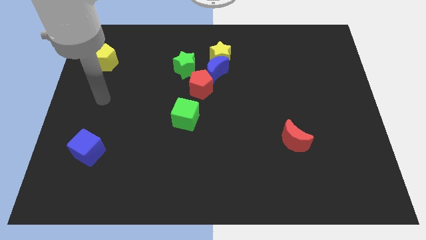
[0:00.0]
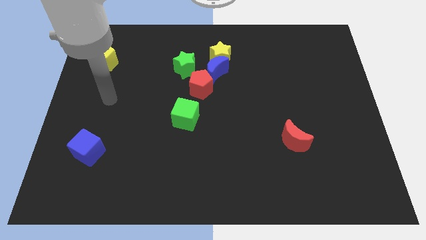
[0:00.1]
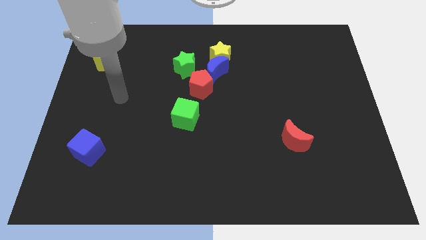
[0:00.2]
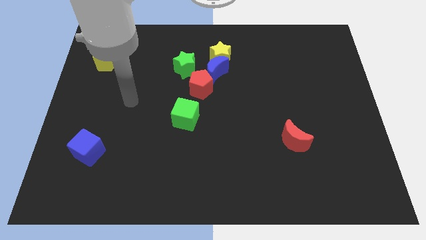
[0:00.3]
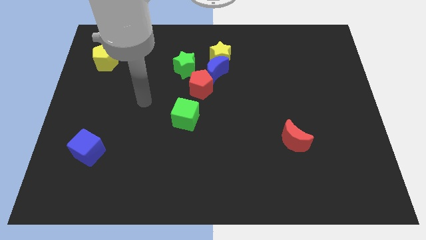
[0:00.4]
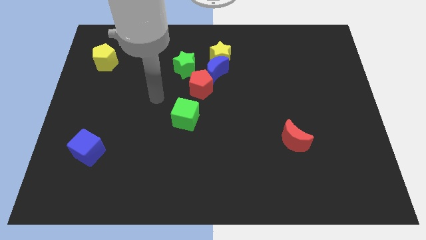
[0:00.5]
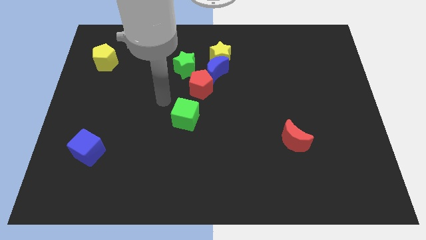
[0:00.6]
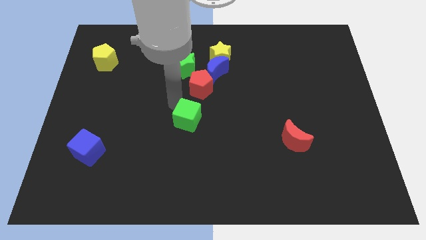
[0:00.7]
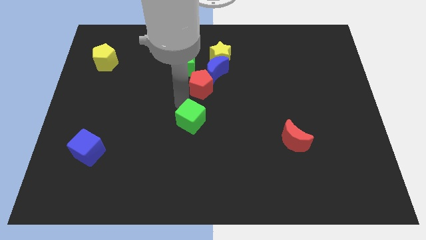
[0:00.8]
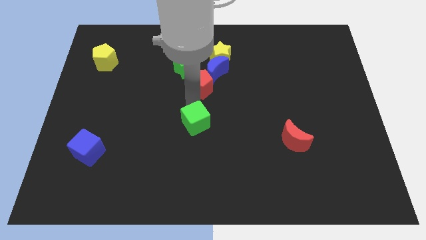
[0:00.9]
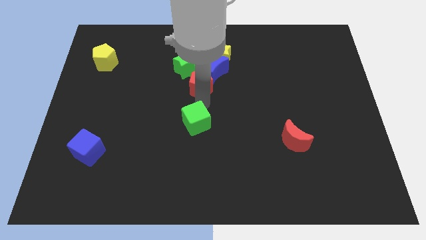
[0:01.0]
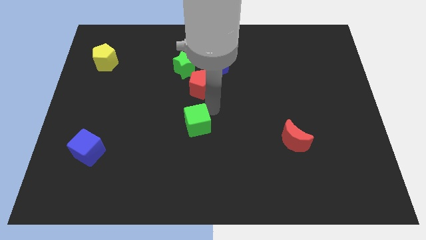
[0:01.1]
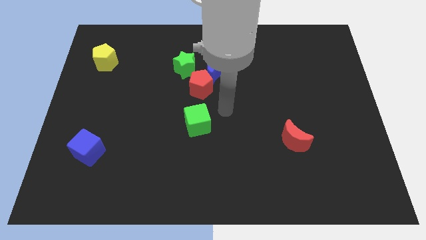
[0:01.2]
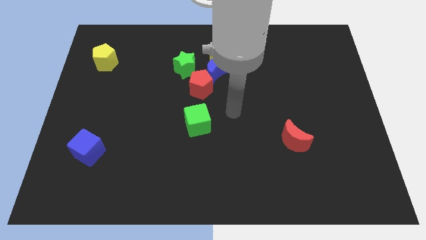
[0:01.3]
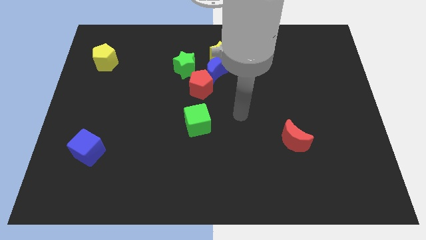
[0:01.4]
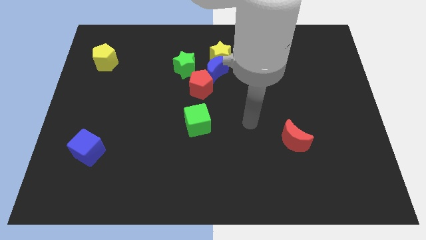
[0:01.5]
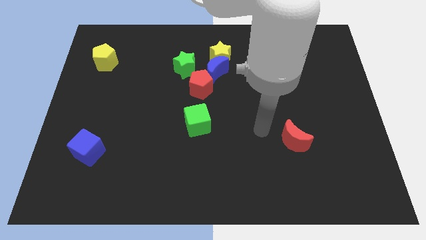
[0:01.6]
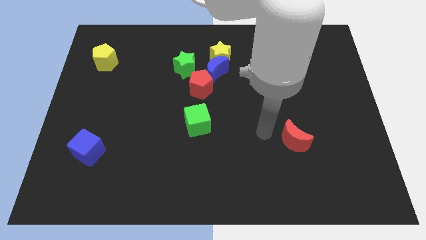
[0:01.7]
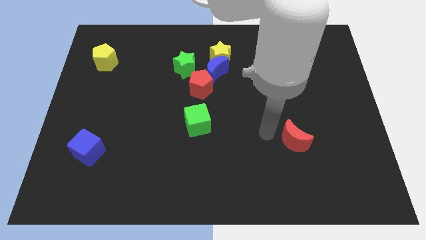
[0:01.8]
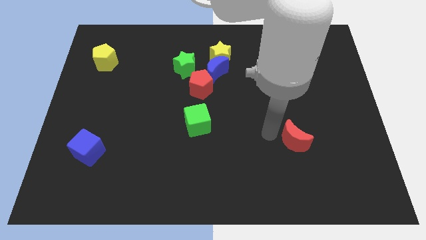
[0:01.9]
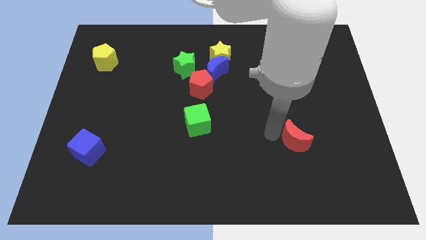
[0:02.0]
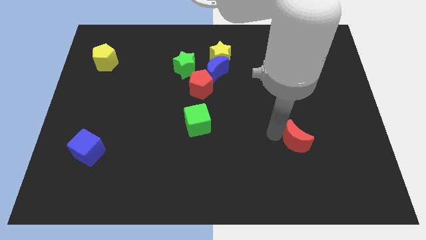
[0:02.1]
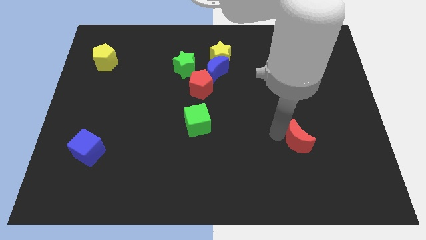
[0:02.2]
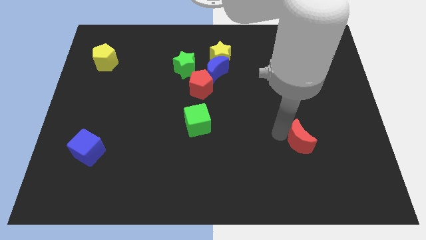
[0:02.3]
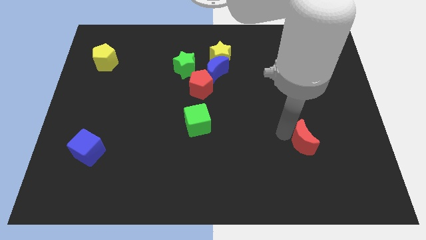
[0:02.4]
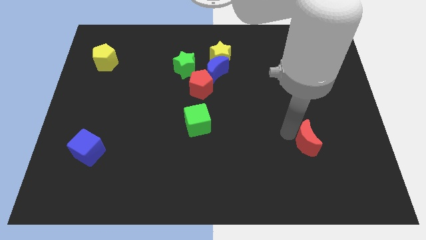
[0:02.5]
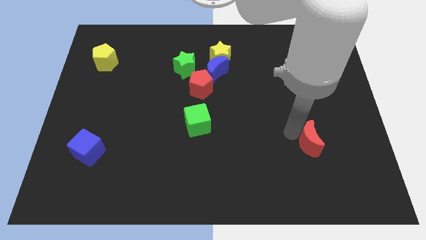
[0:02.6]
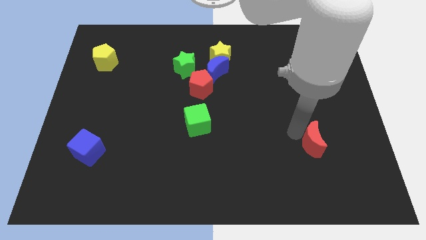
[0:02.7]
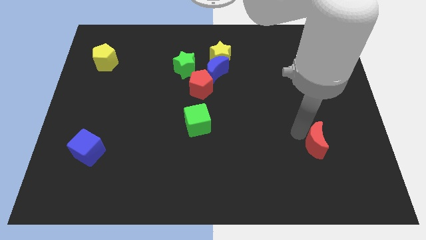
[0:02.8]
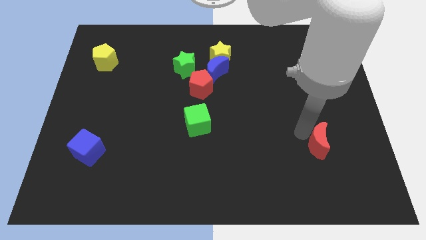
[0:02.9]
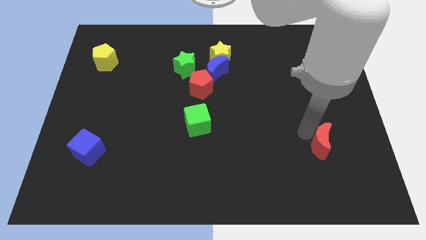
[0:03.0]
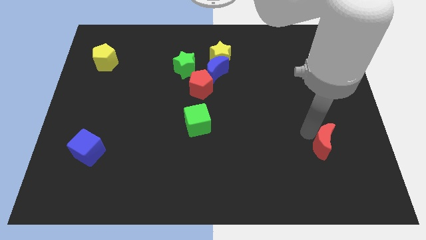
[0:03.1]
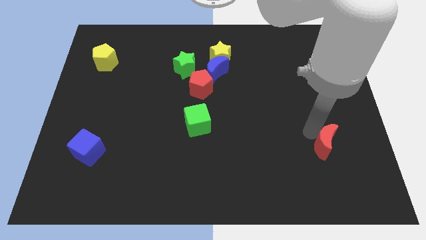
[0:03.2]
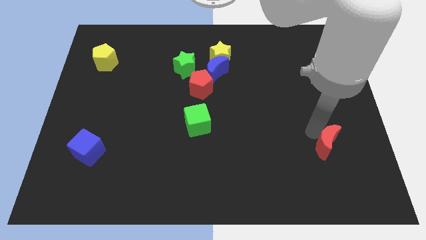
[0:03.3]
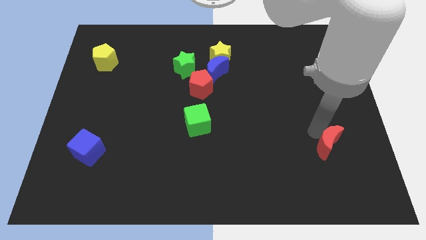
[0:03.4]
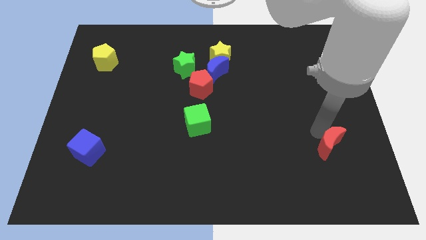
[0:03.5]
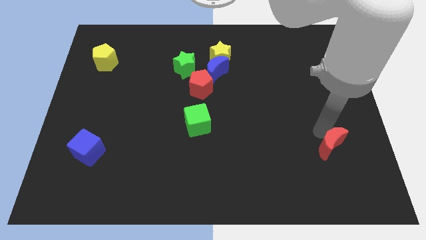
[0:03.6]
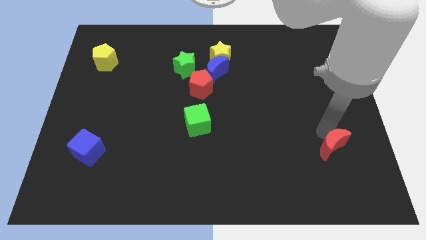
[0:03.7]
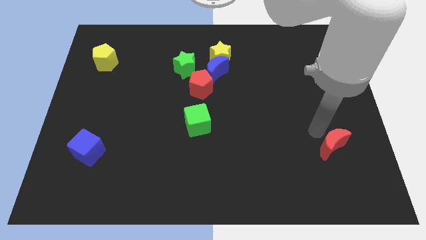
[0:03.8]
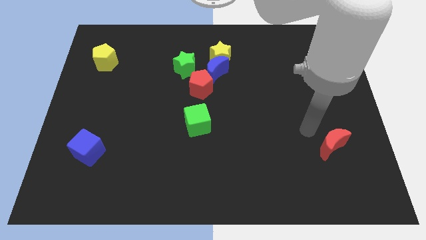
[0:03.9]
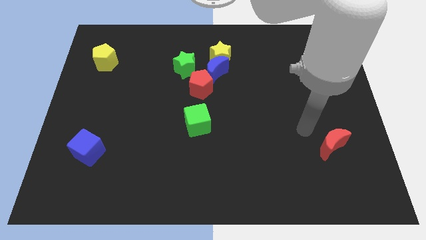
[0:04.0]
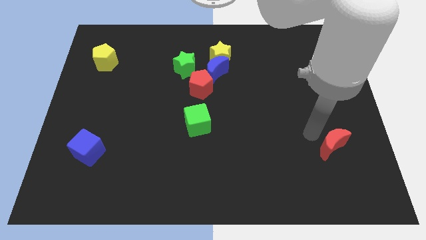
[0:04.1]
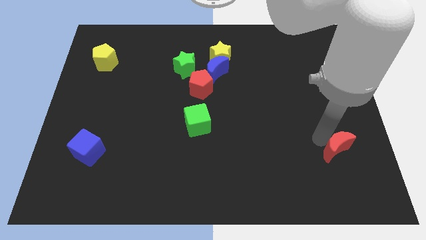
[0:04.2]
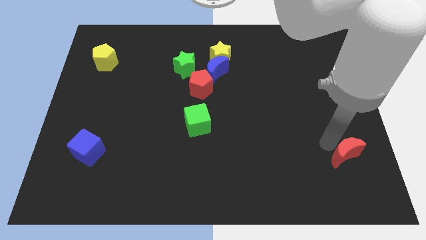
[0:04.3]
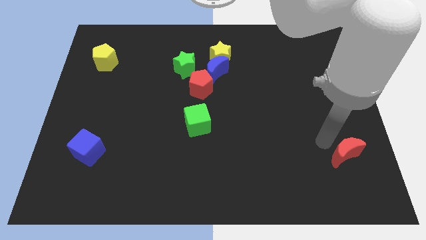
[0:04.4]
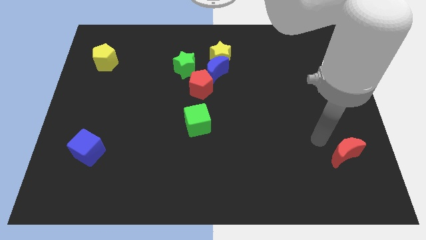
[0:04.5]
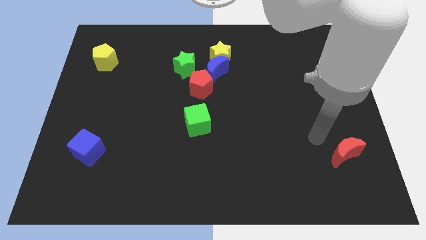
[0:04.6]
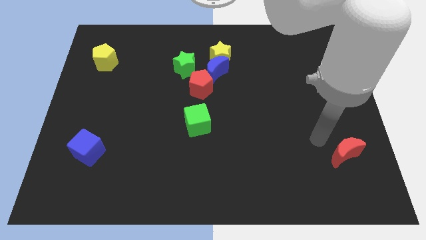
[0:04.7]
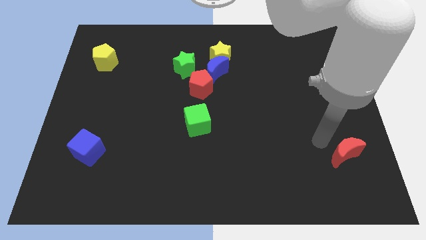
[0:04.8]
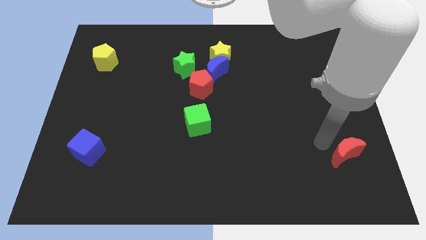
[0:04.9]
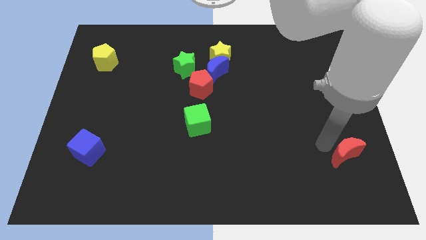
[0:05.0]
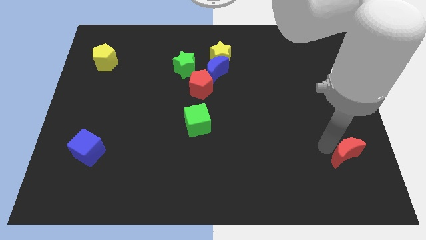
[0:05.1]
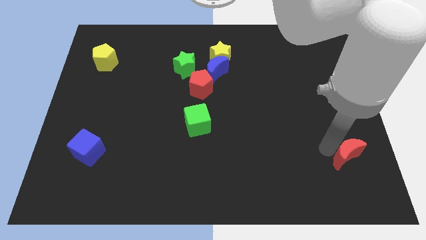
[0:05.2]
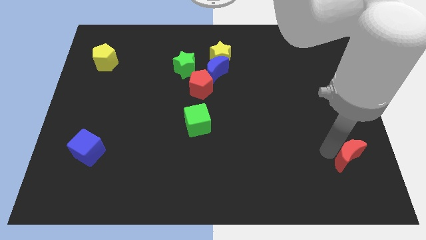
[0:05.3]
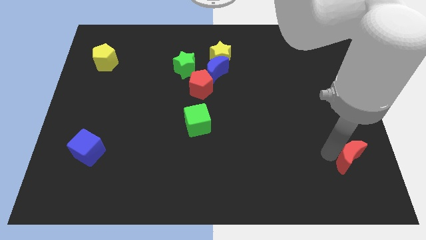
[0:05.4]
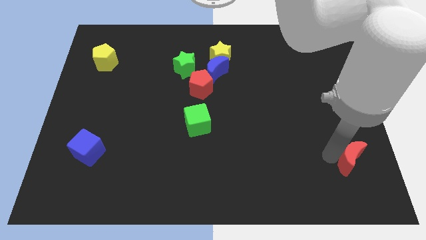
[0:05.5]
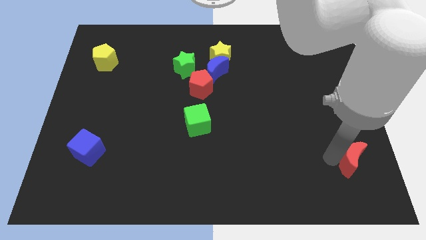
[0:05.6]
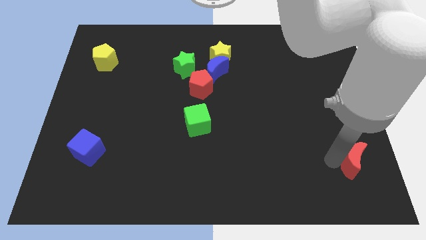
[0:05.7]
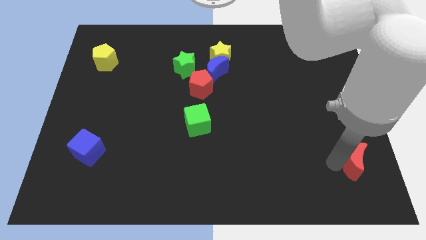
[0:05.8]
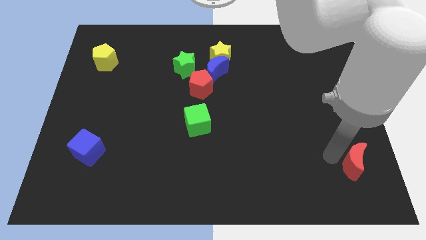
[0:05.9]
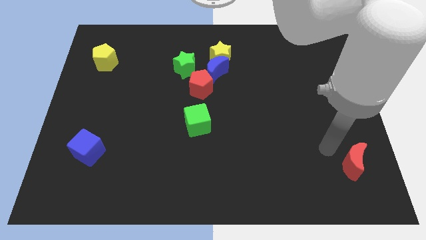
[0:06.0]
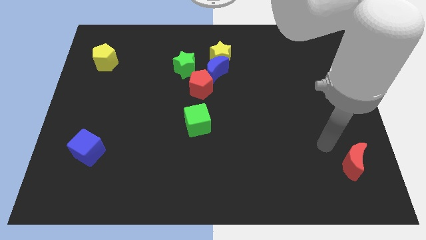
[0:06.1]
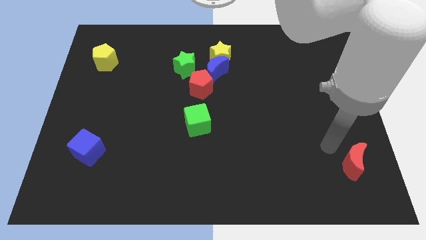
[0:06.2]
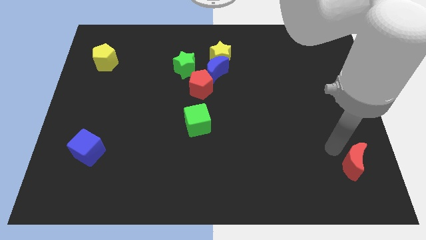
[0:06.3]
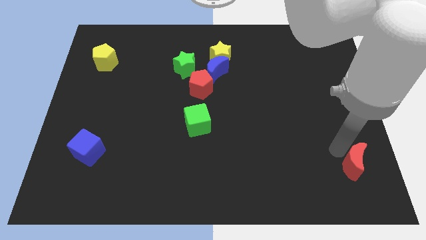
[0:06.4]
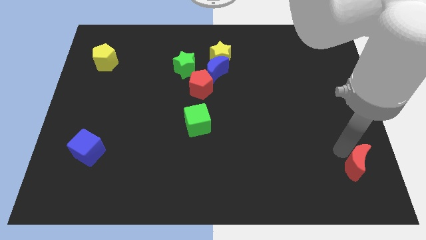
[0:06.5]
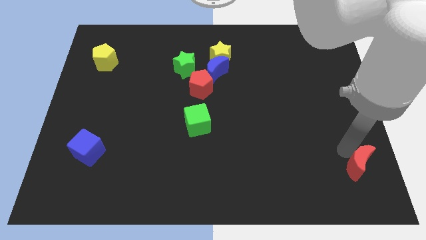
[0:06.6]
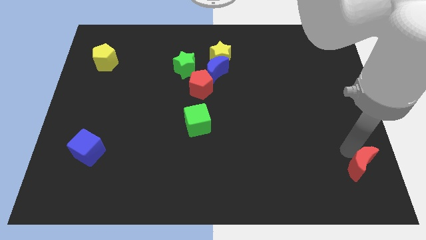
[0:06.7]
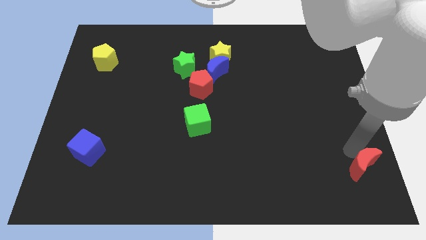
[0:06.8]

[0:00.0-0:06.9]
slide the red moon to the bottom right of the board

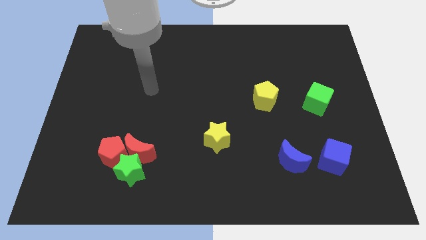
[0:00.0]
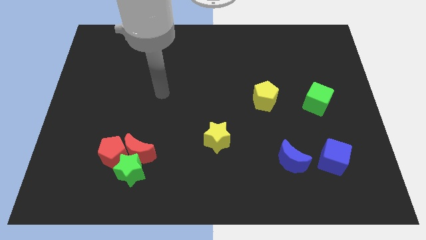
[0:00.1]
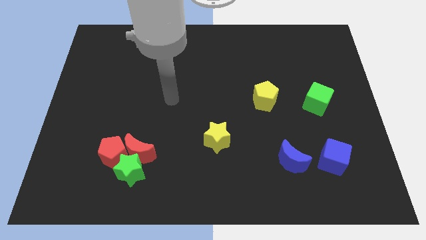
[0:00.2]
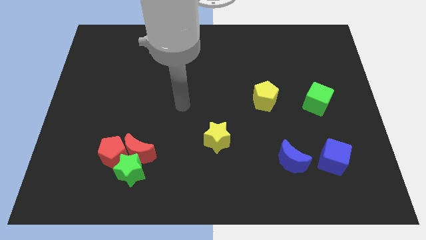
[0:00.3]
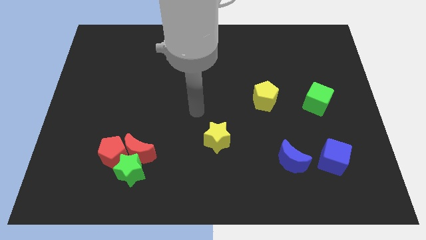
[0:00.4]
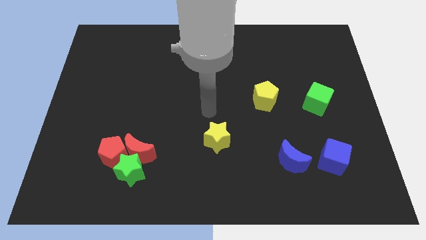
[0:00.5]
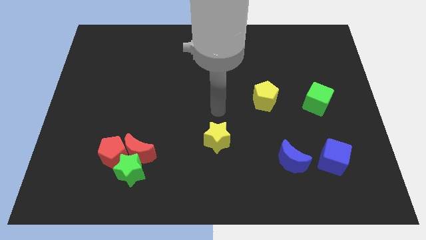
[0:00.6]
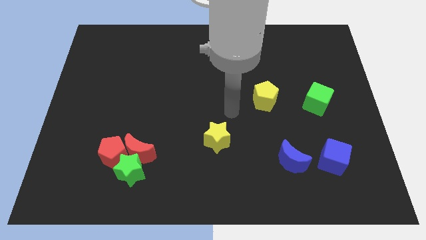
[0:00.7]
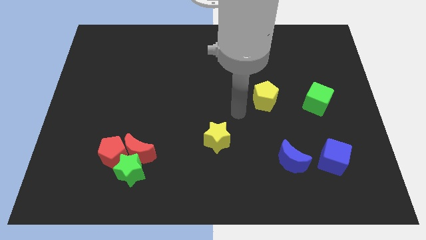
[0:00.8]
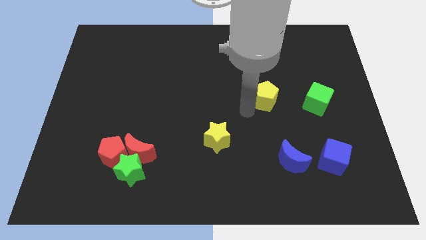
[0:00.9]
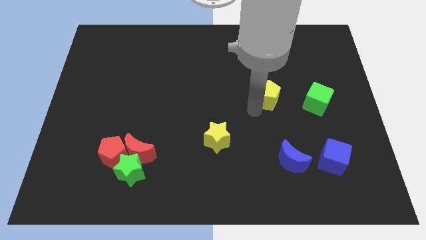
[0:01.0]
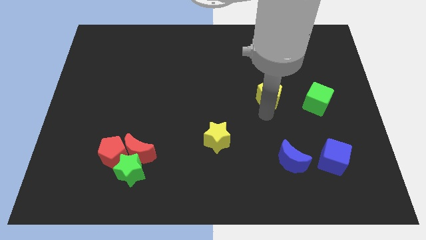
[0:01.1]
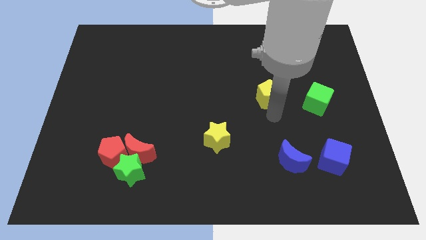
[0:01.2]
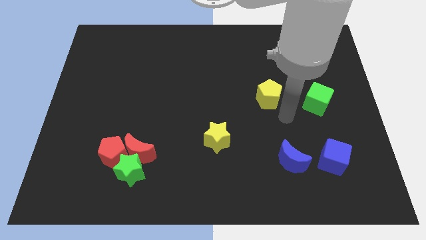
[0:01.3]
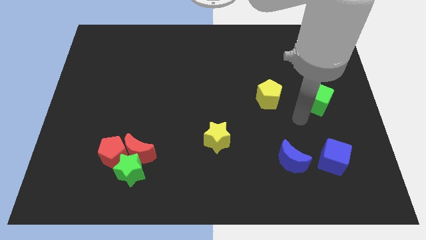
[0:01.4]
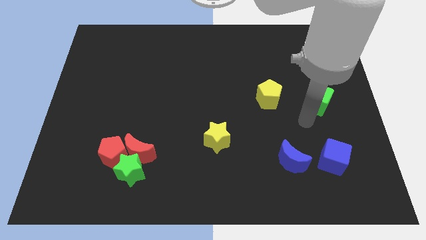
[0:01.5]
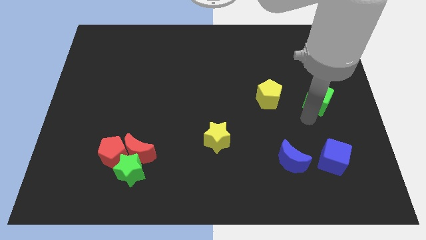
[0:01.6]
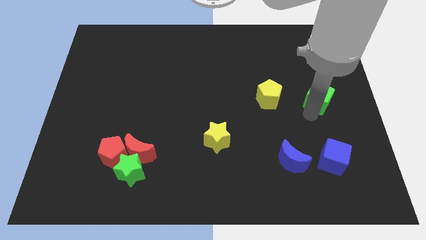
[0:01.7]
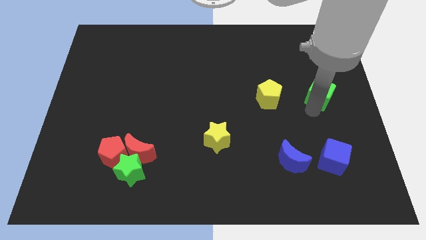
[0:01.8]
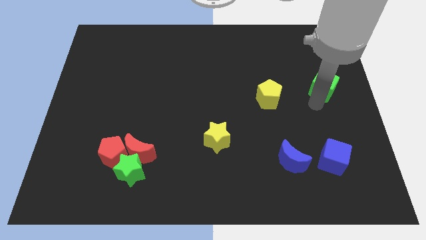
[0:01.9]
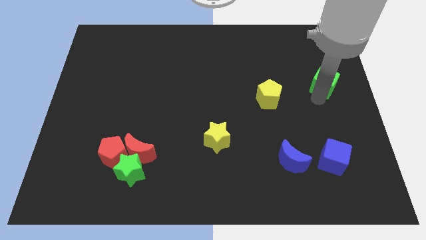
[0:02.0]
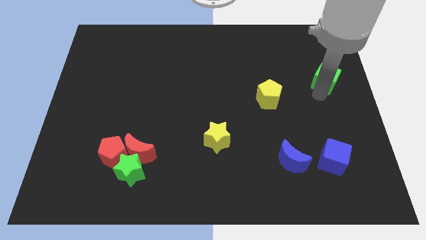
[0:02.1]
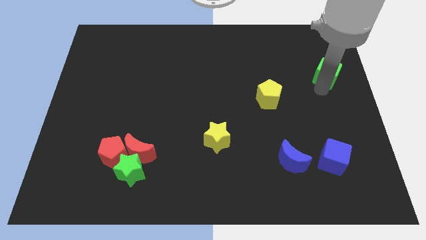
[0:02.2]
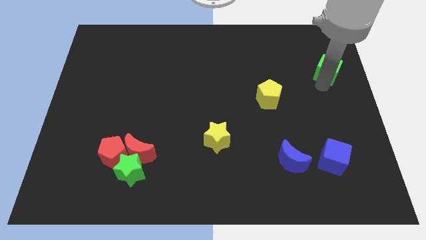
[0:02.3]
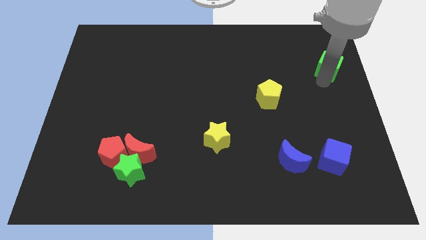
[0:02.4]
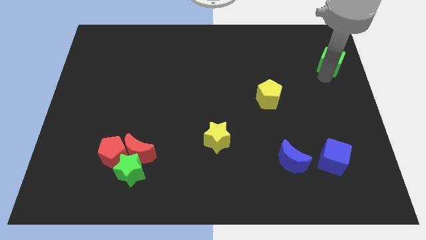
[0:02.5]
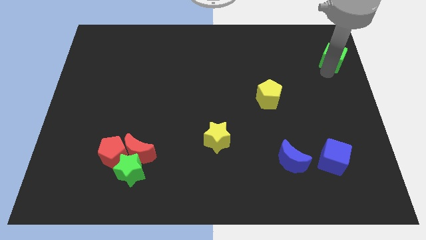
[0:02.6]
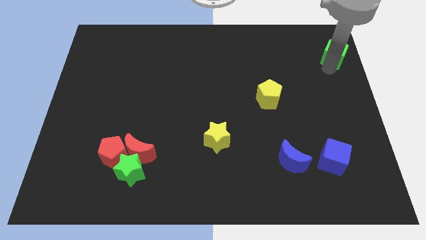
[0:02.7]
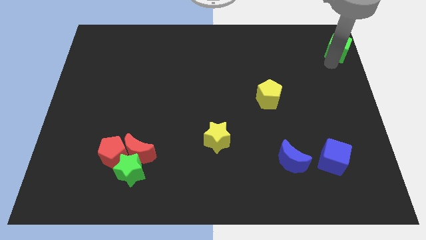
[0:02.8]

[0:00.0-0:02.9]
push the green cube to the top right
